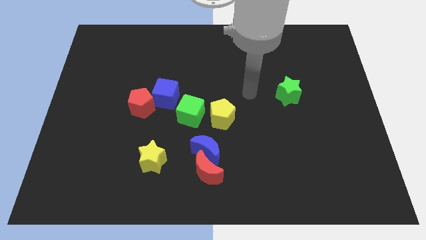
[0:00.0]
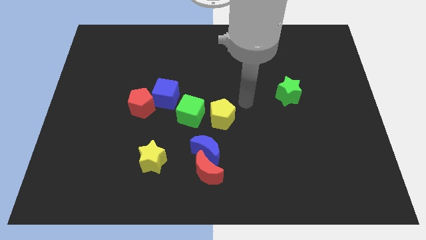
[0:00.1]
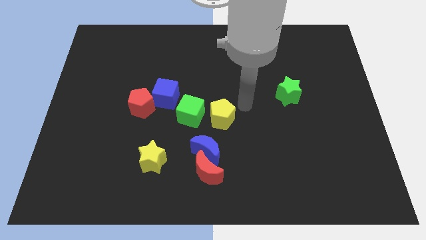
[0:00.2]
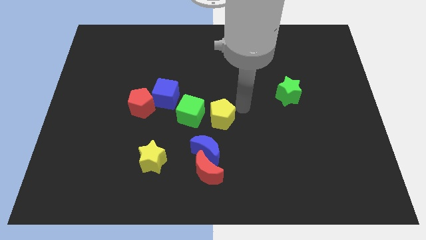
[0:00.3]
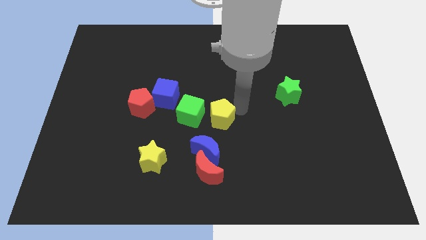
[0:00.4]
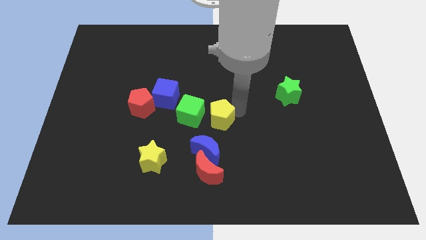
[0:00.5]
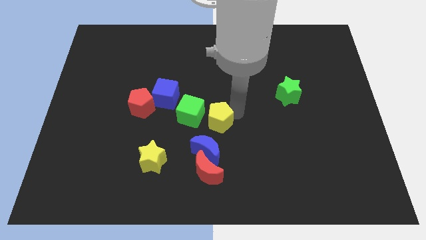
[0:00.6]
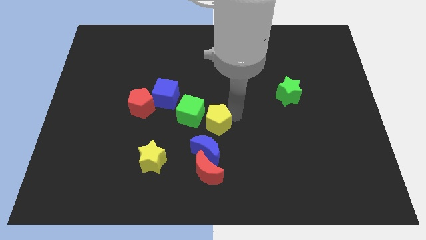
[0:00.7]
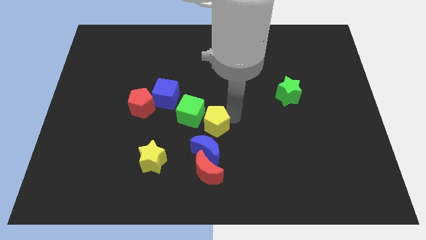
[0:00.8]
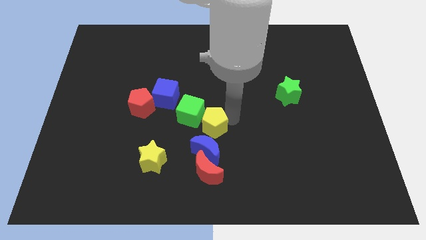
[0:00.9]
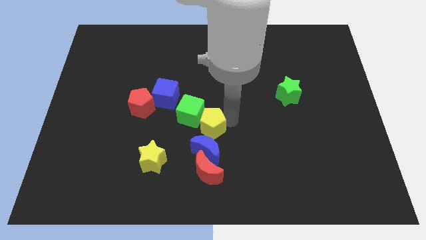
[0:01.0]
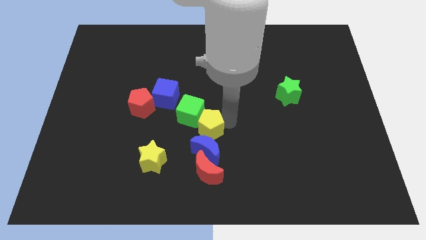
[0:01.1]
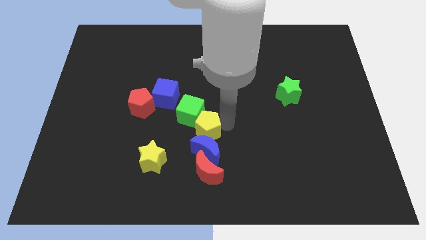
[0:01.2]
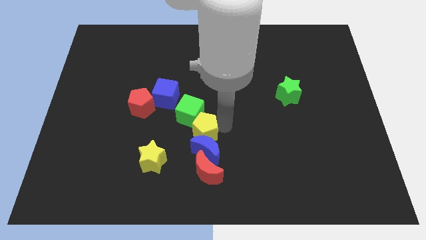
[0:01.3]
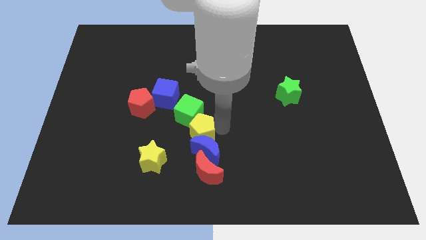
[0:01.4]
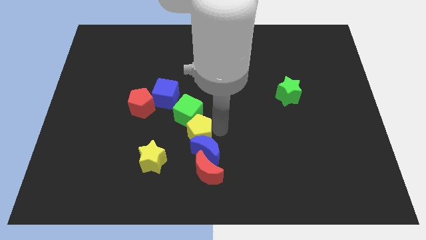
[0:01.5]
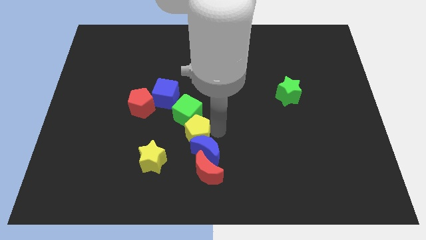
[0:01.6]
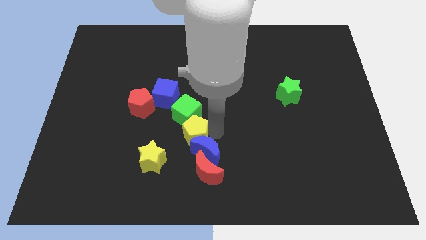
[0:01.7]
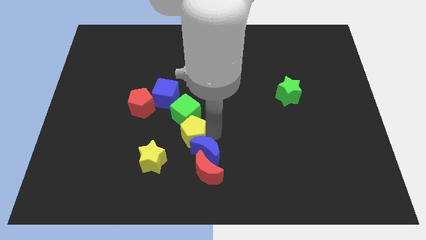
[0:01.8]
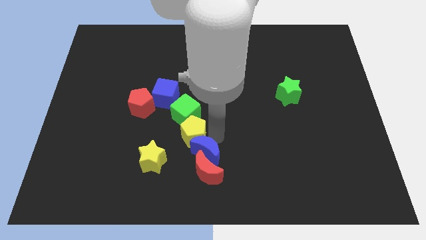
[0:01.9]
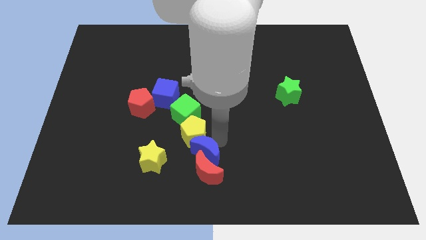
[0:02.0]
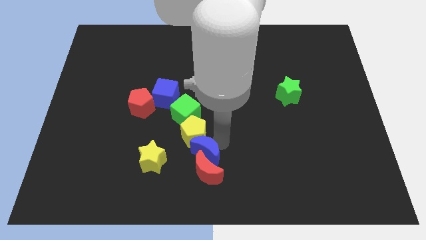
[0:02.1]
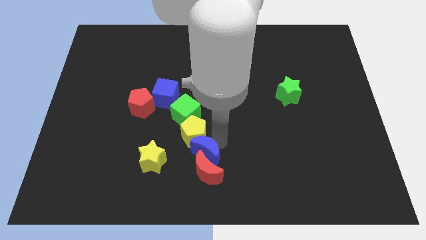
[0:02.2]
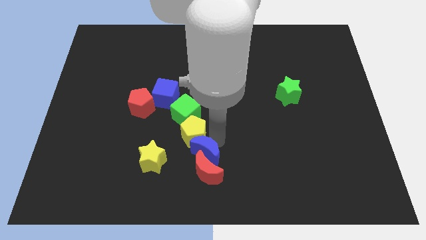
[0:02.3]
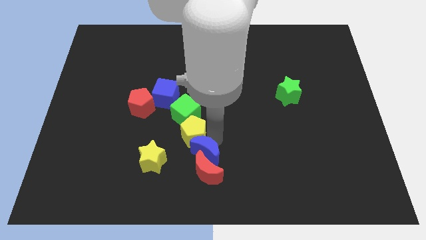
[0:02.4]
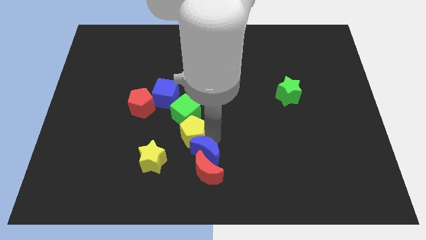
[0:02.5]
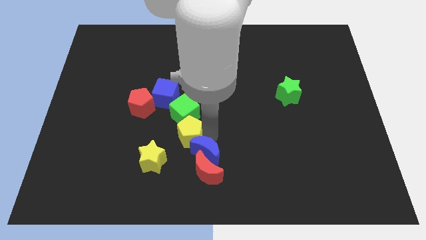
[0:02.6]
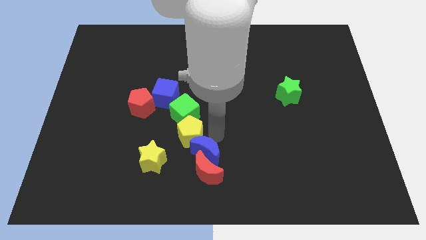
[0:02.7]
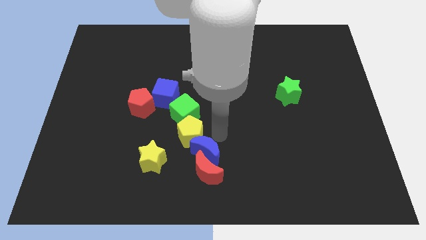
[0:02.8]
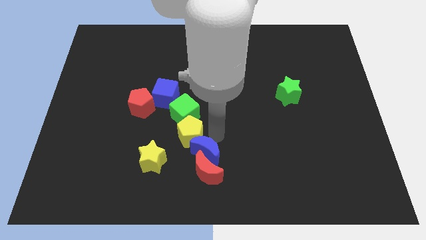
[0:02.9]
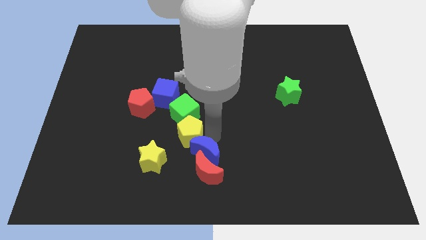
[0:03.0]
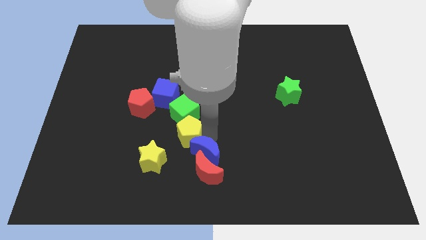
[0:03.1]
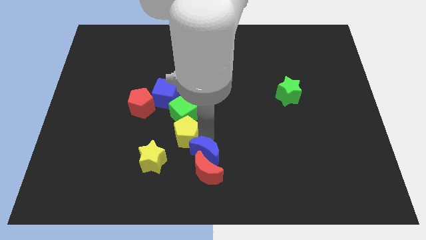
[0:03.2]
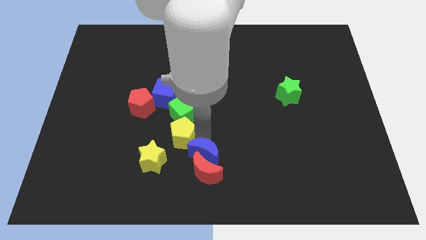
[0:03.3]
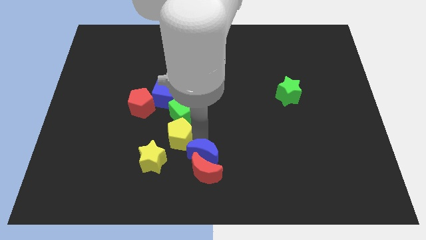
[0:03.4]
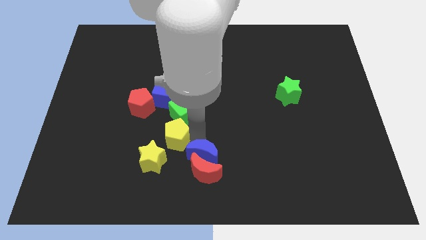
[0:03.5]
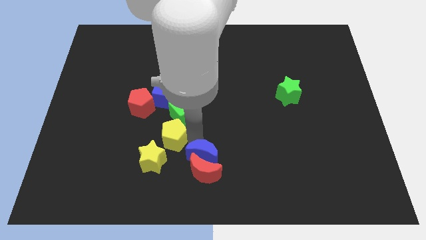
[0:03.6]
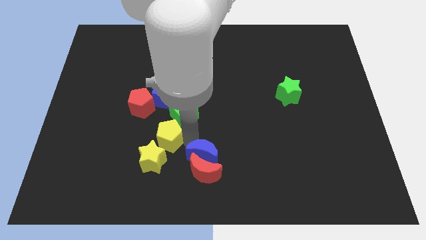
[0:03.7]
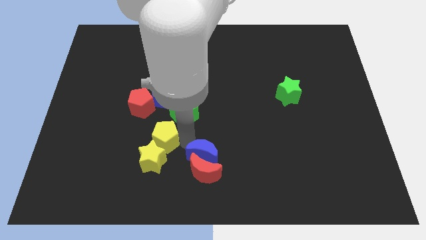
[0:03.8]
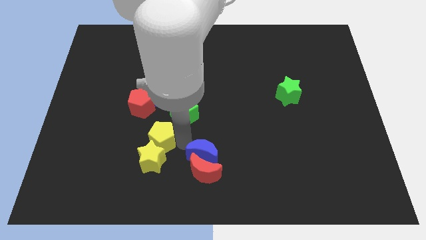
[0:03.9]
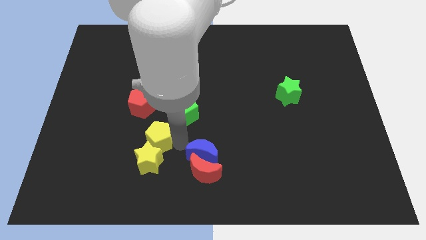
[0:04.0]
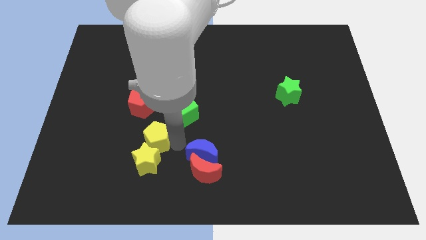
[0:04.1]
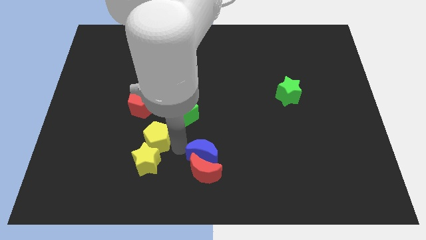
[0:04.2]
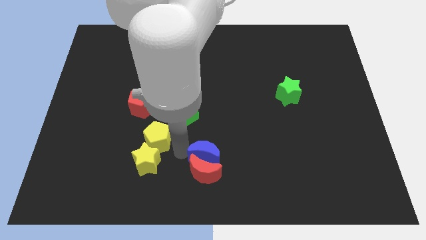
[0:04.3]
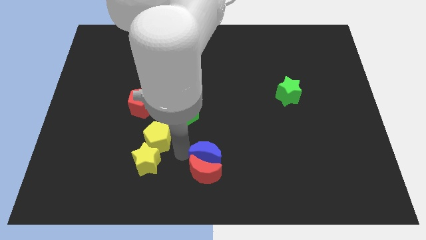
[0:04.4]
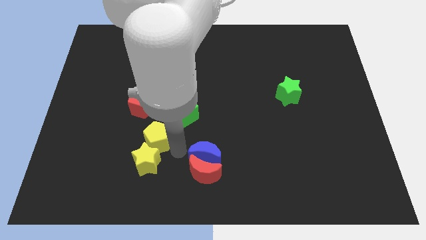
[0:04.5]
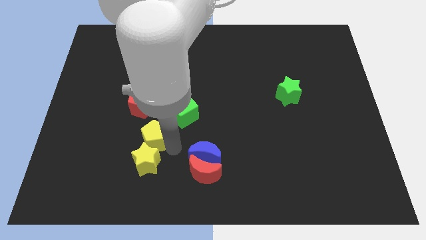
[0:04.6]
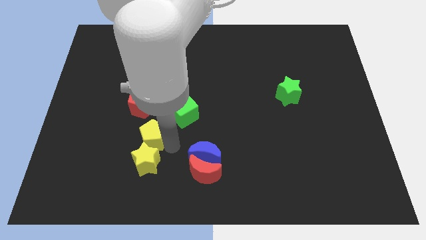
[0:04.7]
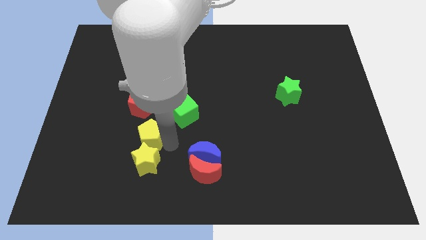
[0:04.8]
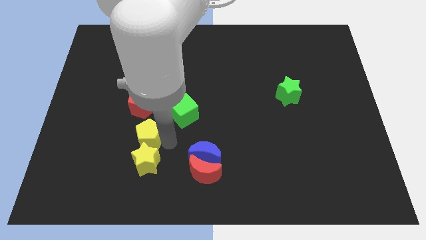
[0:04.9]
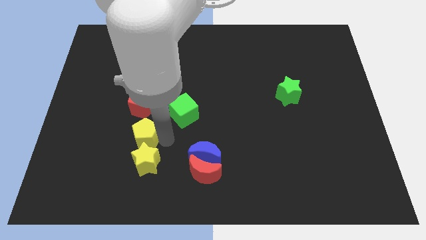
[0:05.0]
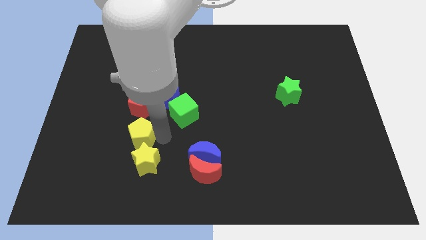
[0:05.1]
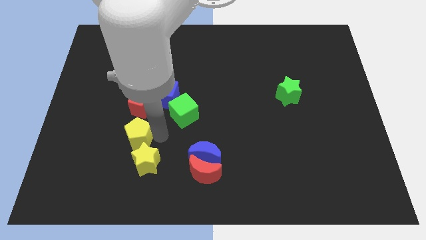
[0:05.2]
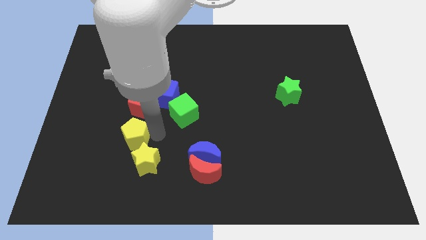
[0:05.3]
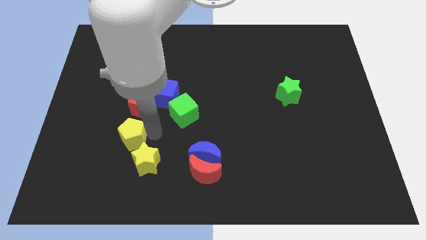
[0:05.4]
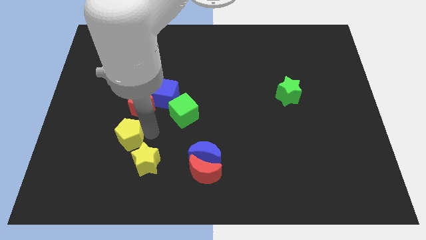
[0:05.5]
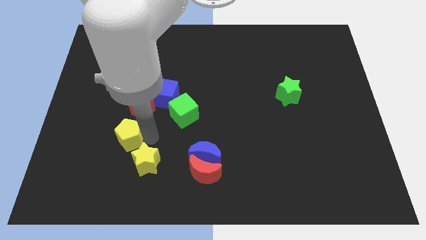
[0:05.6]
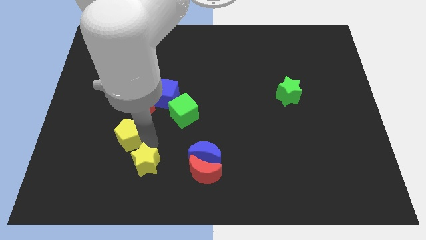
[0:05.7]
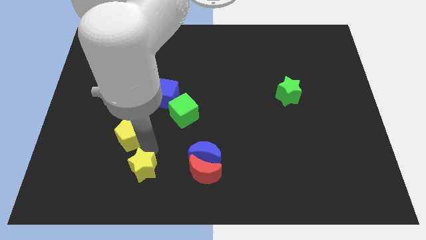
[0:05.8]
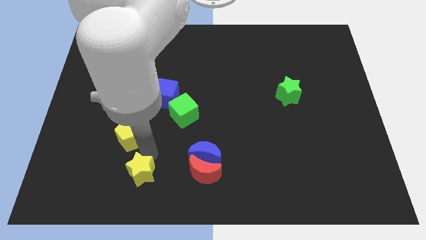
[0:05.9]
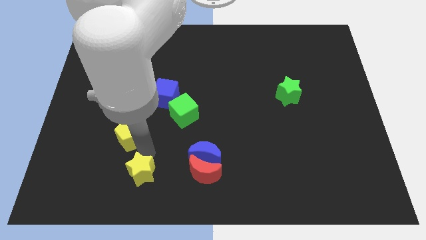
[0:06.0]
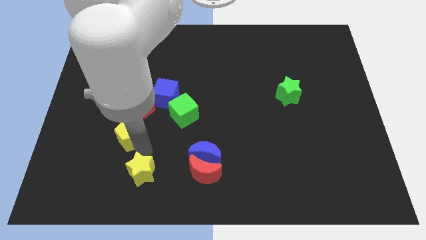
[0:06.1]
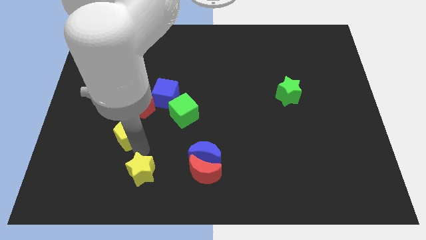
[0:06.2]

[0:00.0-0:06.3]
push the yellow pentagon to the bottom left side of the red pentagon

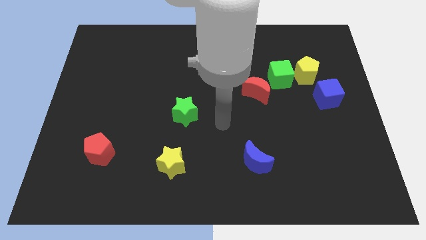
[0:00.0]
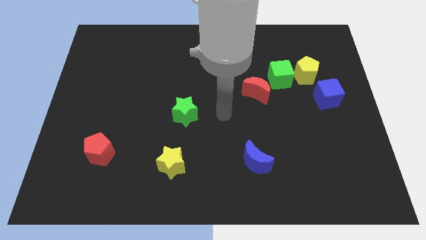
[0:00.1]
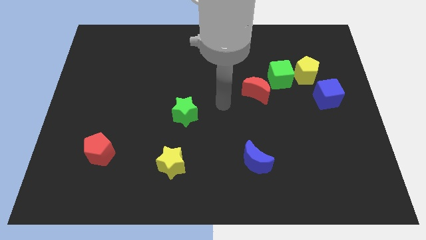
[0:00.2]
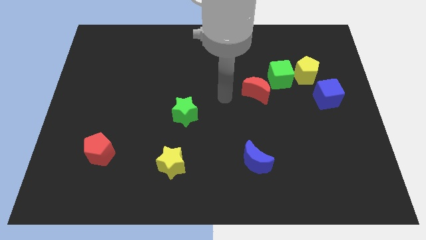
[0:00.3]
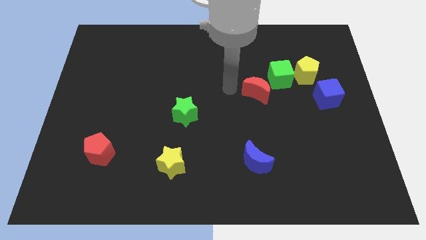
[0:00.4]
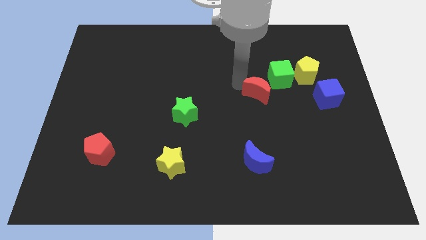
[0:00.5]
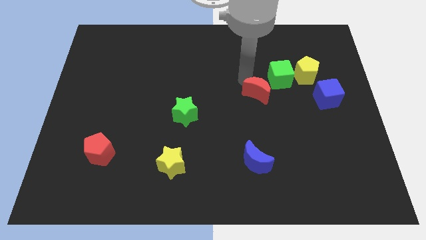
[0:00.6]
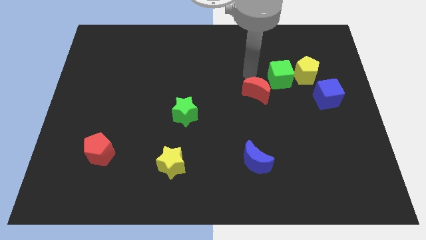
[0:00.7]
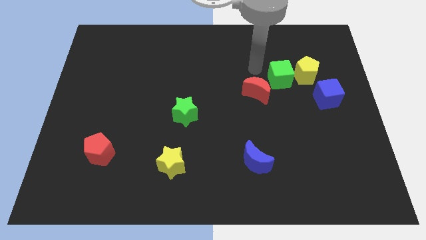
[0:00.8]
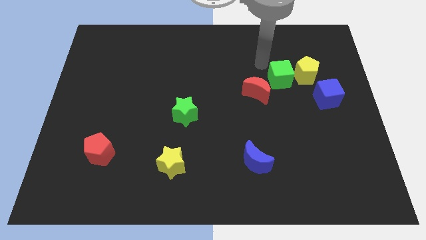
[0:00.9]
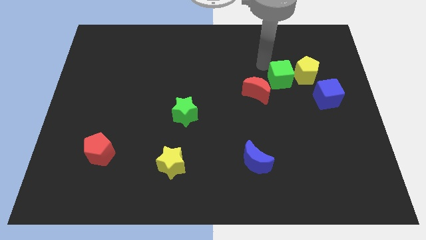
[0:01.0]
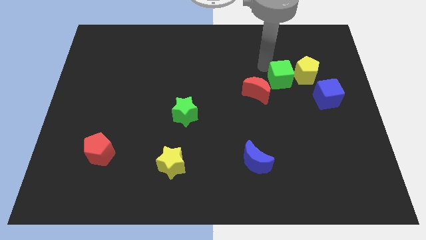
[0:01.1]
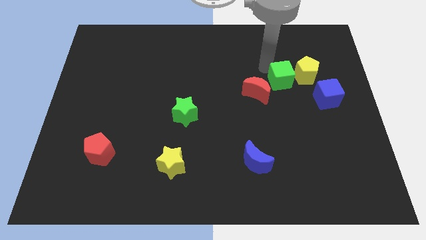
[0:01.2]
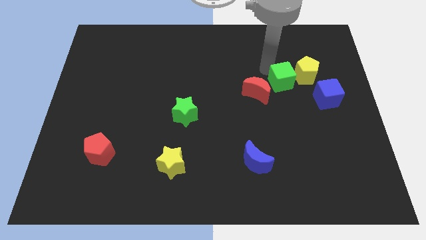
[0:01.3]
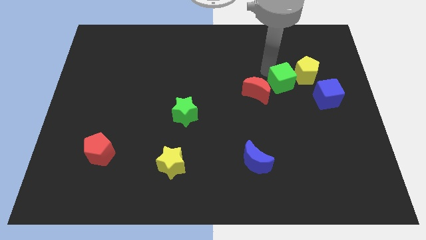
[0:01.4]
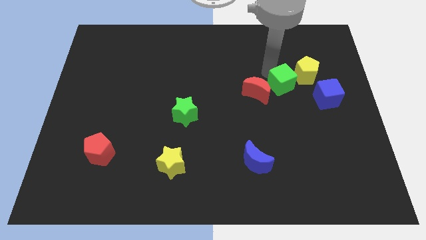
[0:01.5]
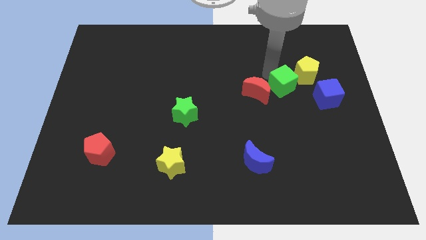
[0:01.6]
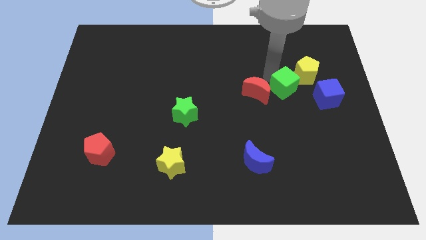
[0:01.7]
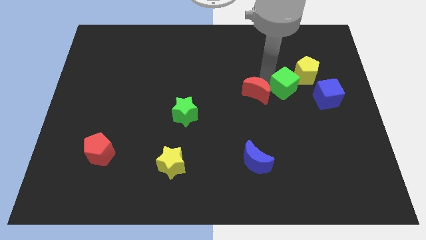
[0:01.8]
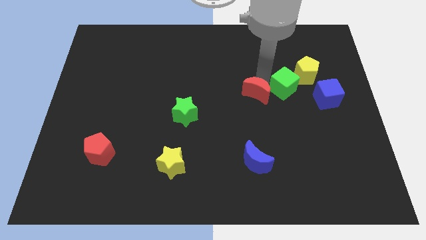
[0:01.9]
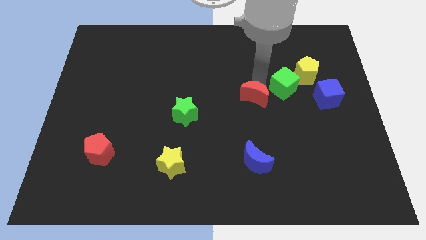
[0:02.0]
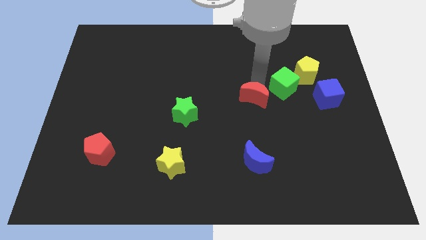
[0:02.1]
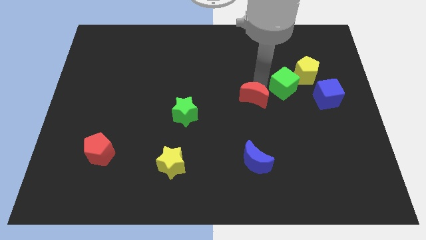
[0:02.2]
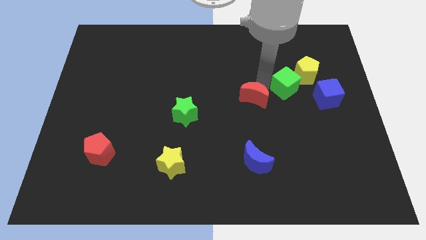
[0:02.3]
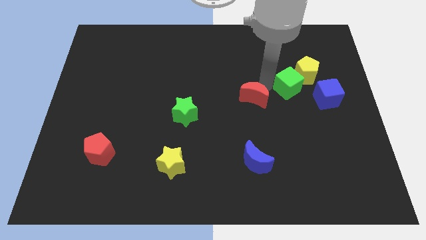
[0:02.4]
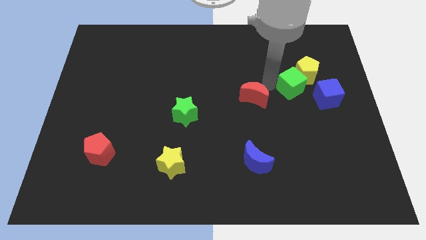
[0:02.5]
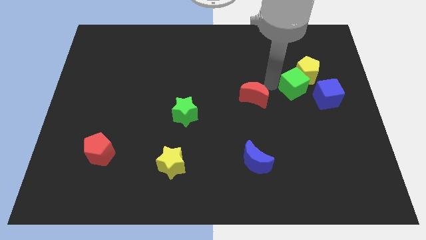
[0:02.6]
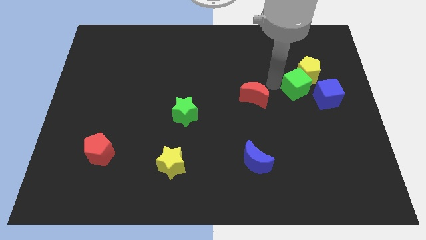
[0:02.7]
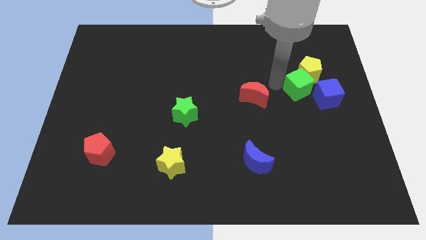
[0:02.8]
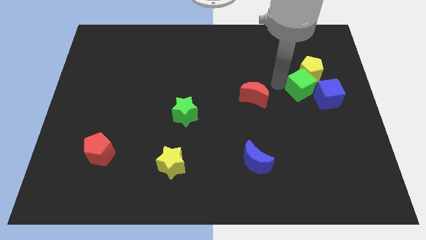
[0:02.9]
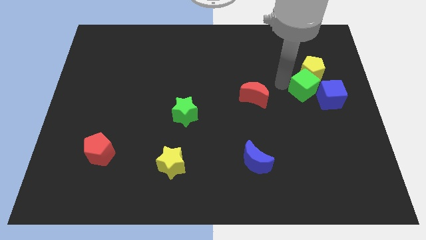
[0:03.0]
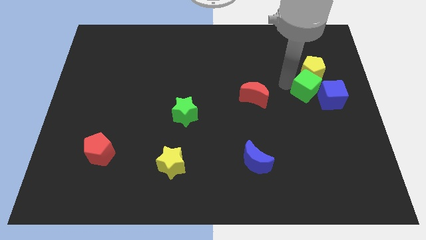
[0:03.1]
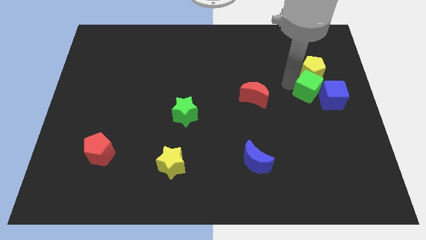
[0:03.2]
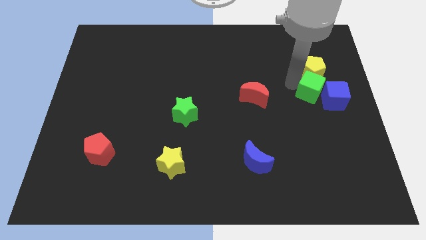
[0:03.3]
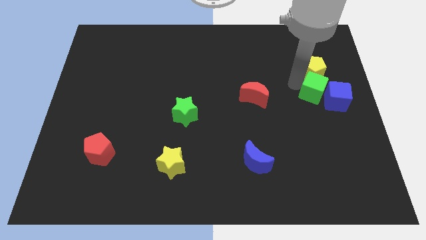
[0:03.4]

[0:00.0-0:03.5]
put the green cube to the bottom right of the yellow pentagon
